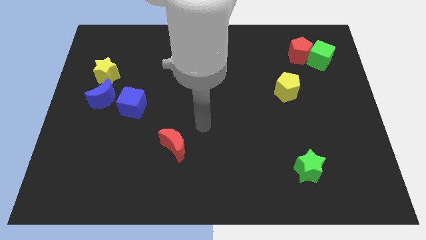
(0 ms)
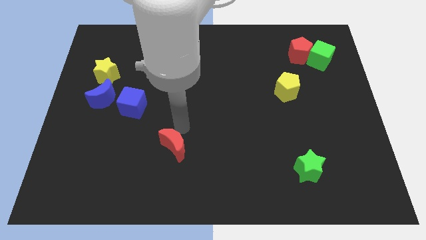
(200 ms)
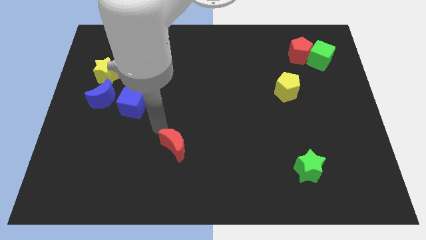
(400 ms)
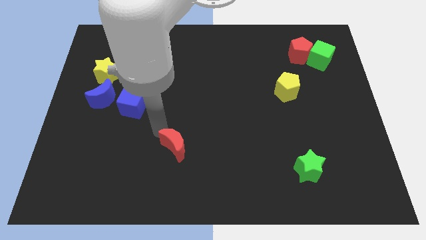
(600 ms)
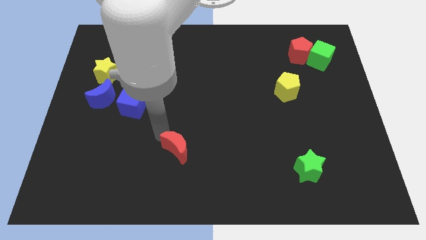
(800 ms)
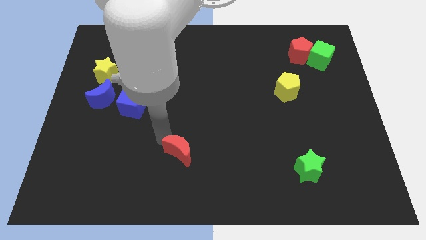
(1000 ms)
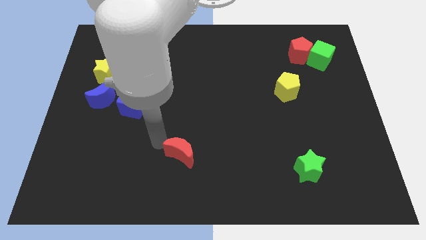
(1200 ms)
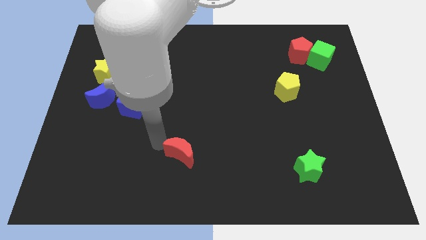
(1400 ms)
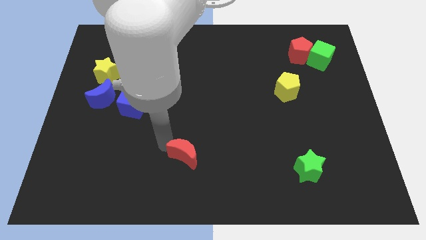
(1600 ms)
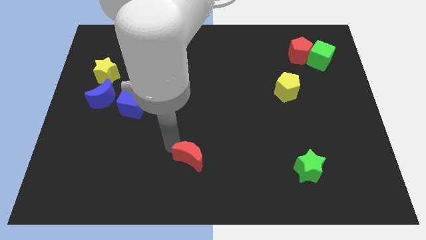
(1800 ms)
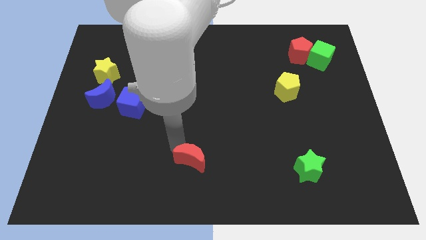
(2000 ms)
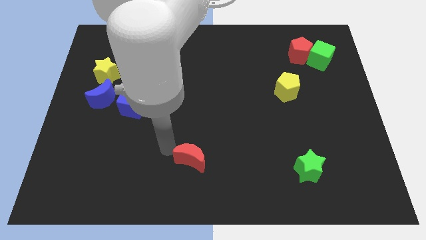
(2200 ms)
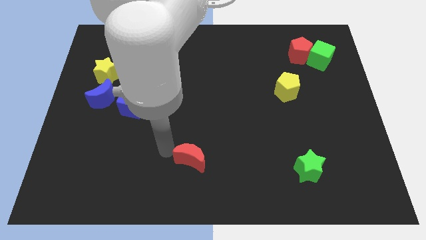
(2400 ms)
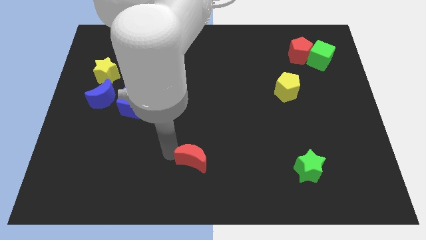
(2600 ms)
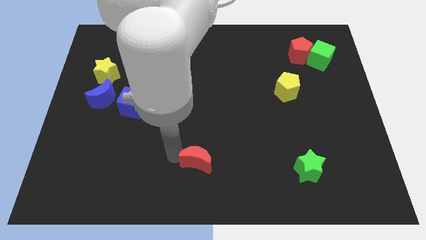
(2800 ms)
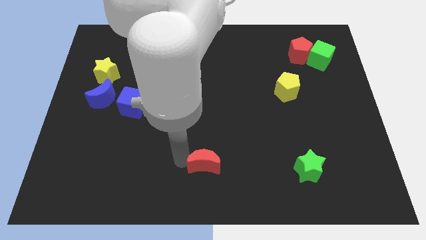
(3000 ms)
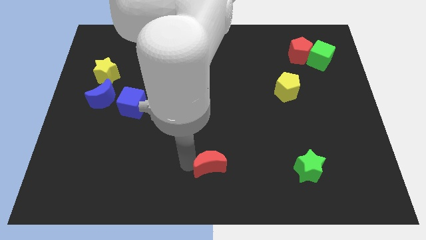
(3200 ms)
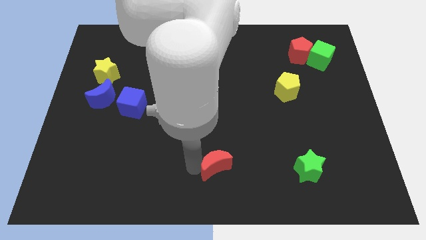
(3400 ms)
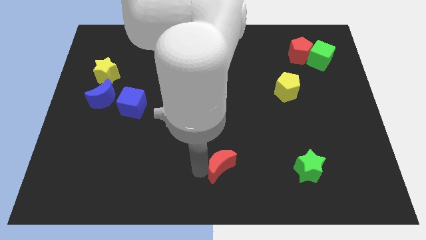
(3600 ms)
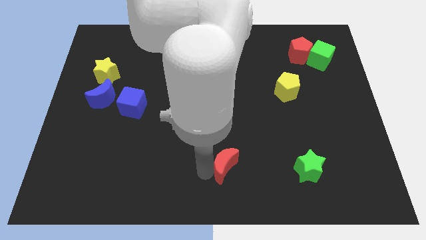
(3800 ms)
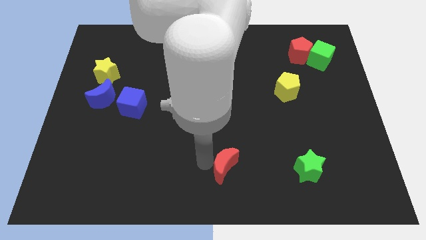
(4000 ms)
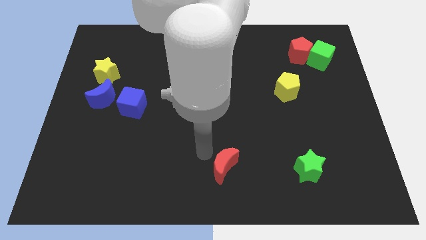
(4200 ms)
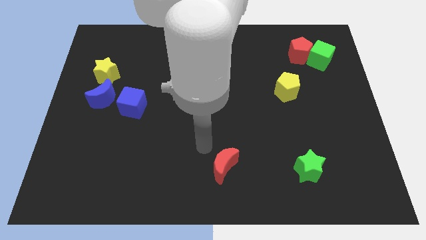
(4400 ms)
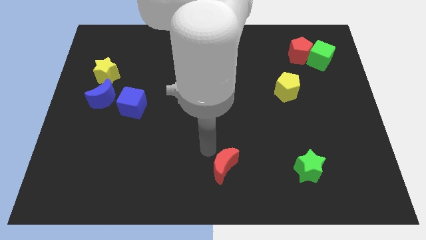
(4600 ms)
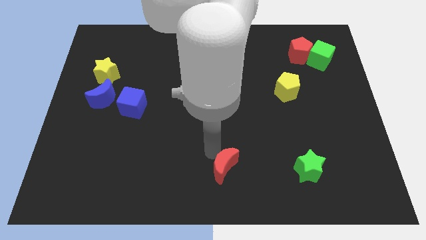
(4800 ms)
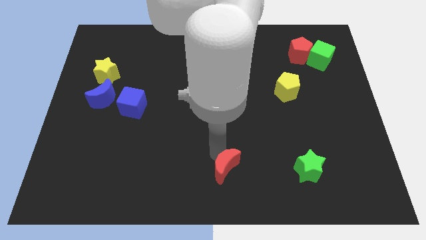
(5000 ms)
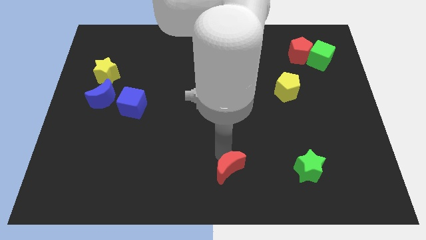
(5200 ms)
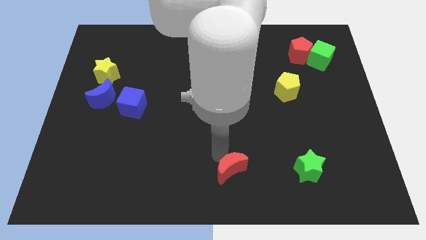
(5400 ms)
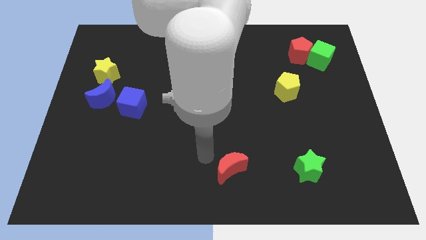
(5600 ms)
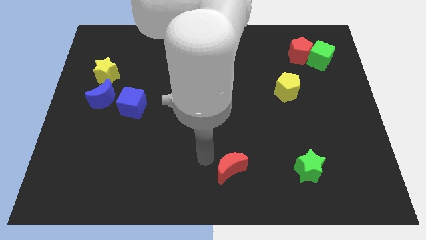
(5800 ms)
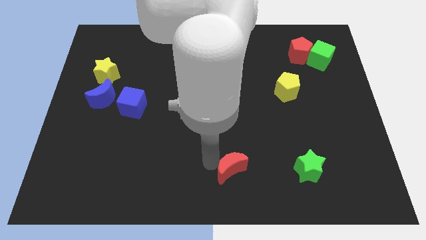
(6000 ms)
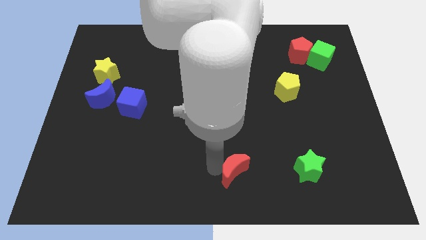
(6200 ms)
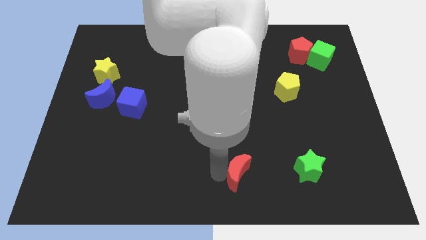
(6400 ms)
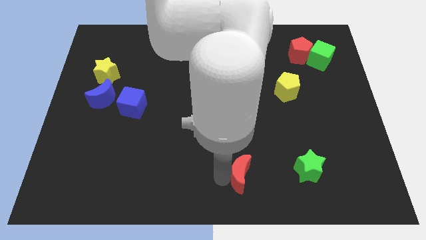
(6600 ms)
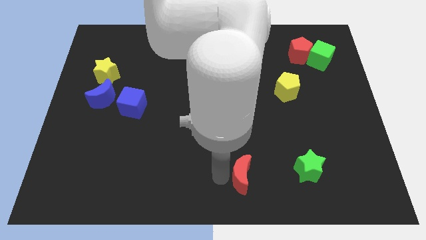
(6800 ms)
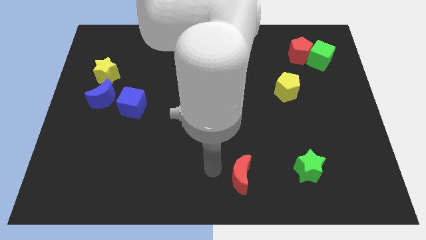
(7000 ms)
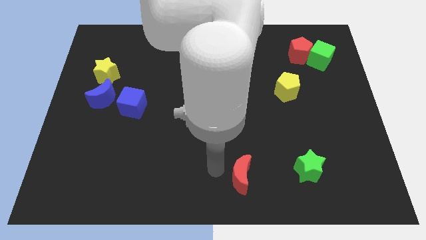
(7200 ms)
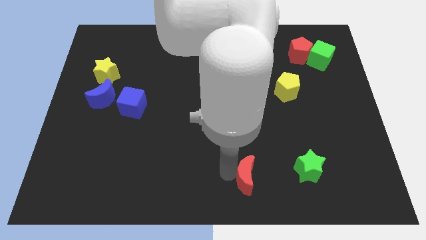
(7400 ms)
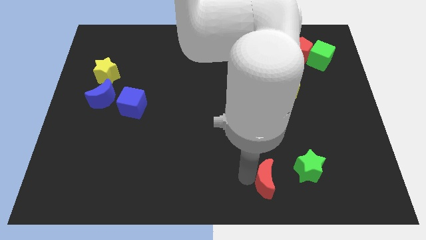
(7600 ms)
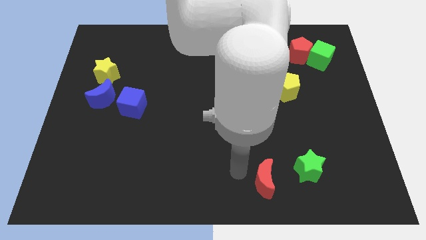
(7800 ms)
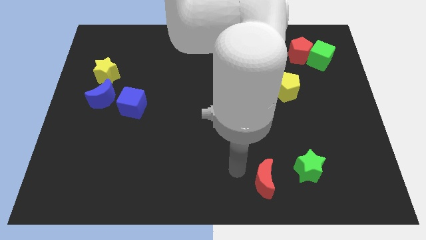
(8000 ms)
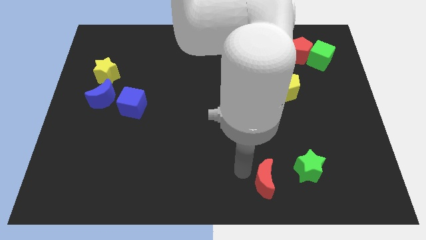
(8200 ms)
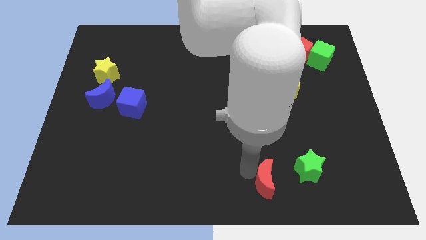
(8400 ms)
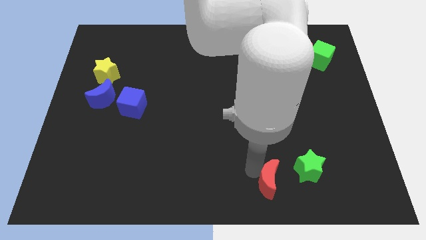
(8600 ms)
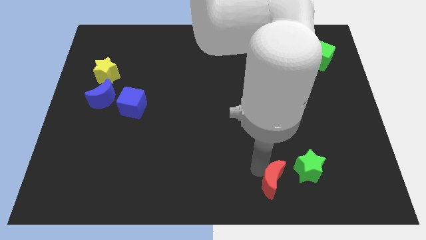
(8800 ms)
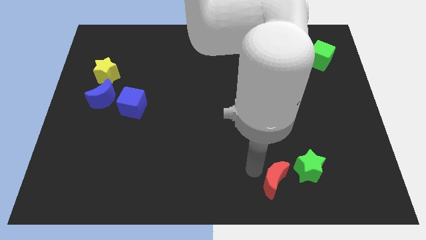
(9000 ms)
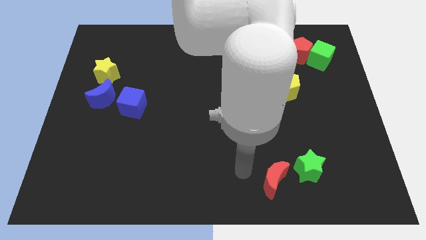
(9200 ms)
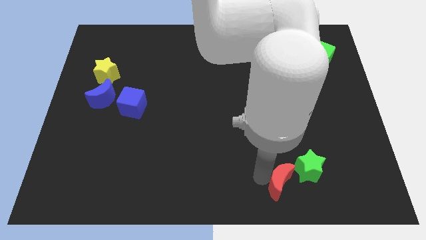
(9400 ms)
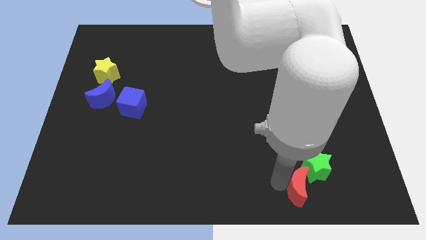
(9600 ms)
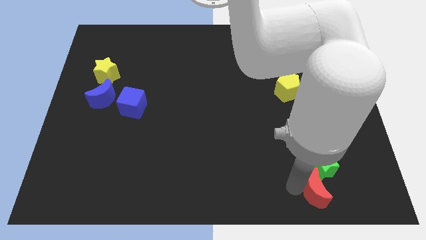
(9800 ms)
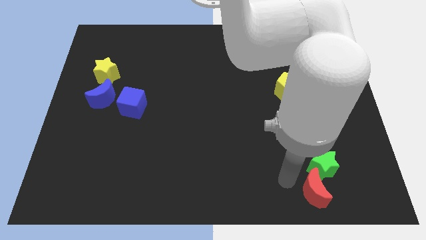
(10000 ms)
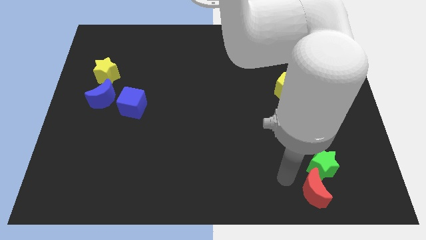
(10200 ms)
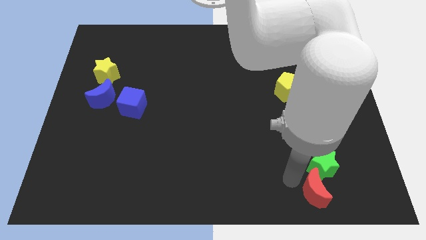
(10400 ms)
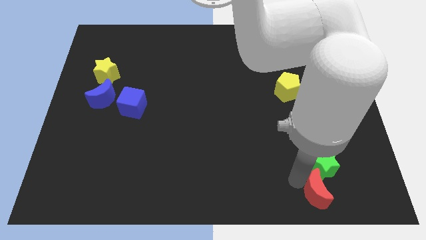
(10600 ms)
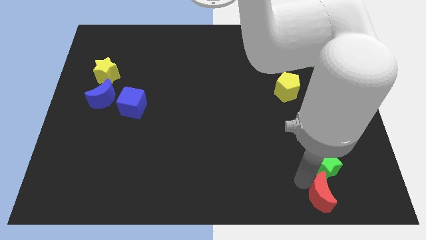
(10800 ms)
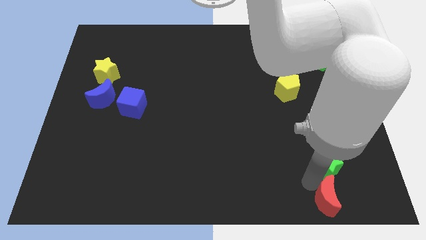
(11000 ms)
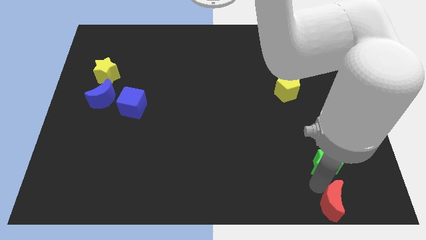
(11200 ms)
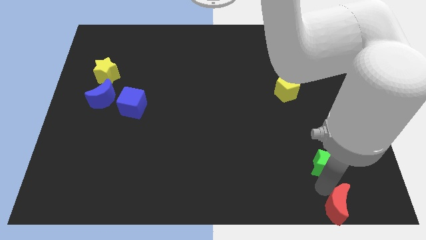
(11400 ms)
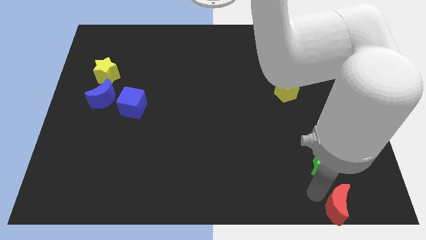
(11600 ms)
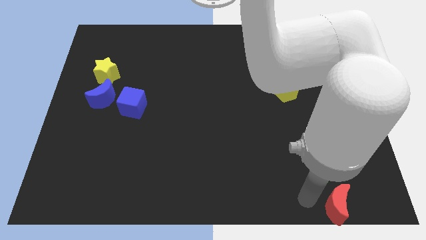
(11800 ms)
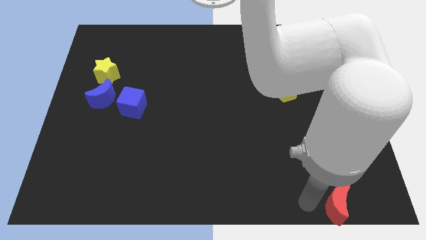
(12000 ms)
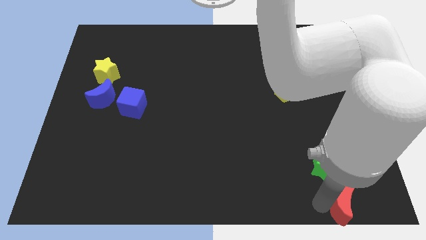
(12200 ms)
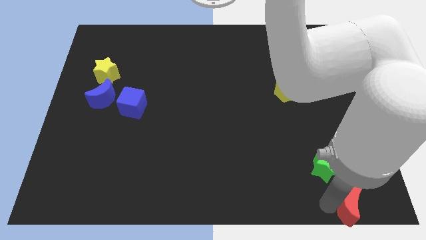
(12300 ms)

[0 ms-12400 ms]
push the red moon to the bottom right of the board

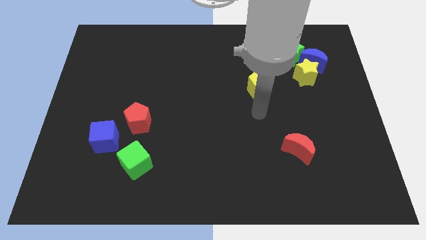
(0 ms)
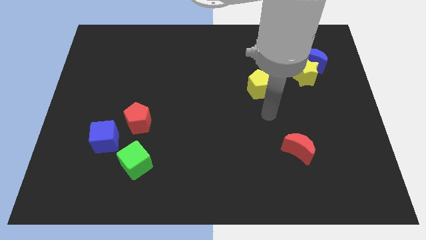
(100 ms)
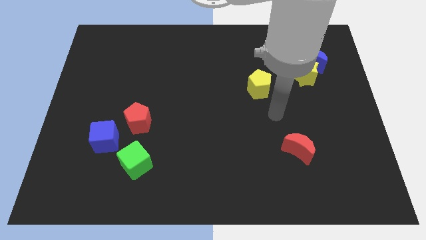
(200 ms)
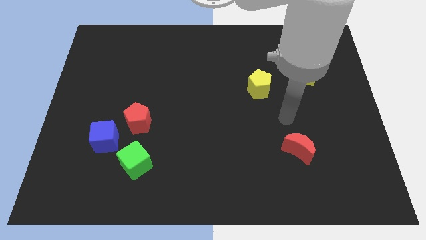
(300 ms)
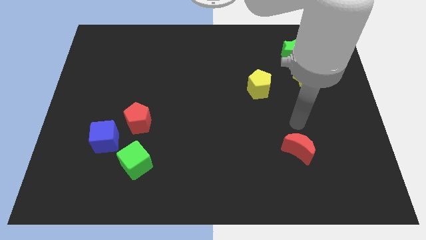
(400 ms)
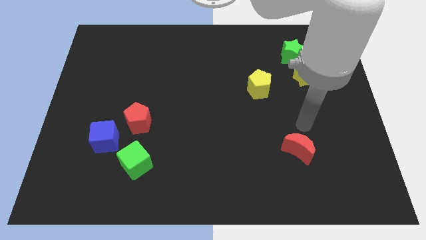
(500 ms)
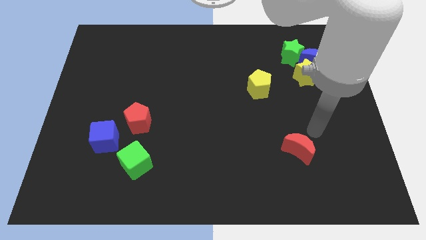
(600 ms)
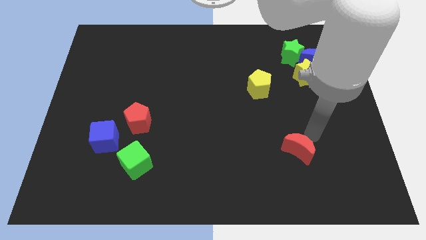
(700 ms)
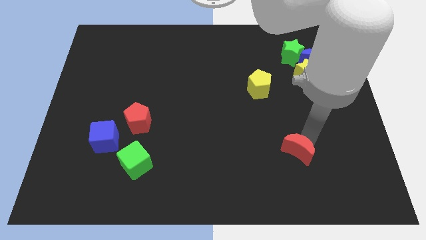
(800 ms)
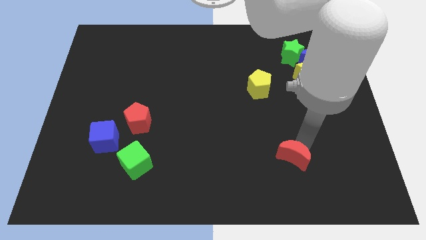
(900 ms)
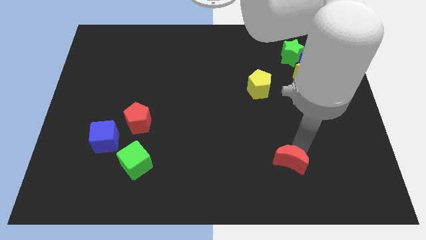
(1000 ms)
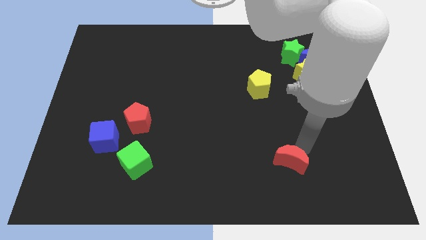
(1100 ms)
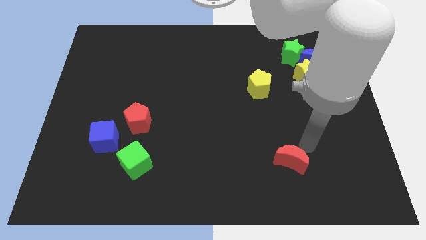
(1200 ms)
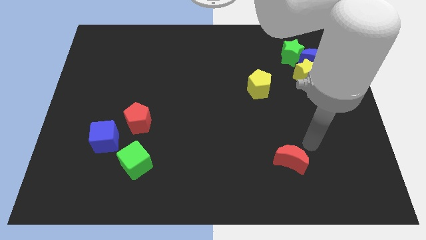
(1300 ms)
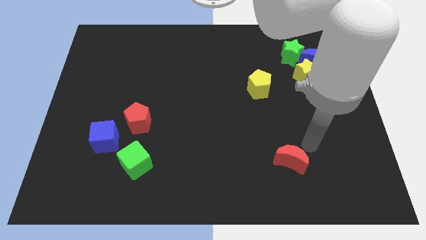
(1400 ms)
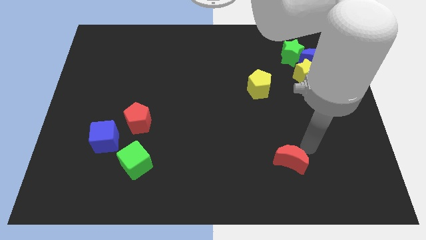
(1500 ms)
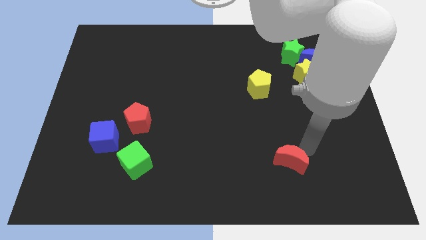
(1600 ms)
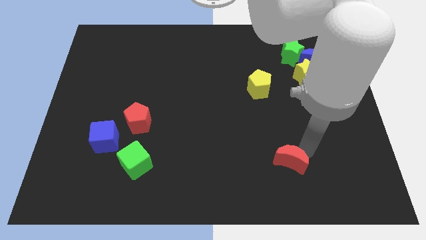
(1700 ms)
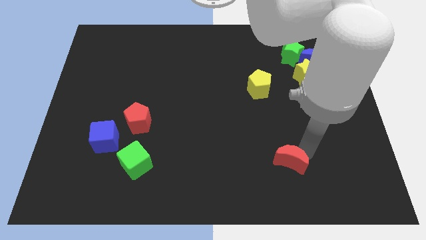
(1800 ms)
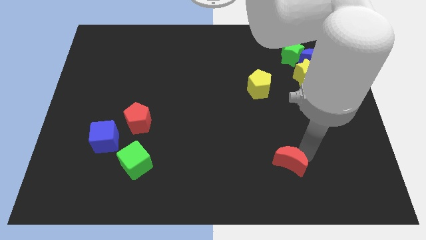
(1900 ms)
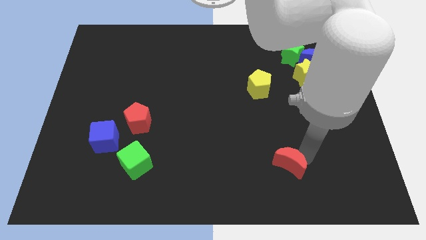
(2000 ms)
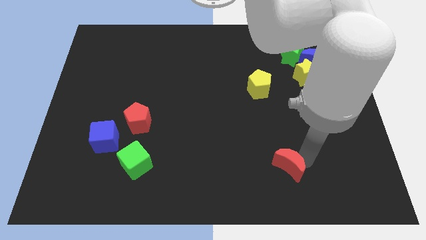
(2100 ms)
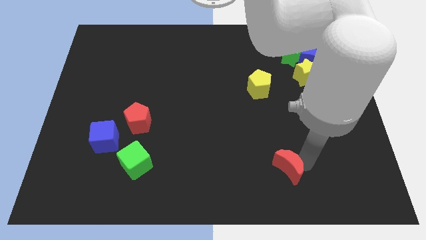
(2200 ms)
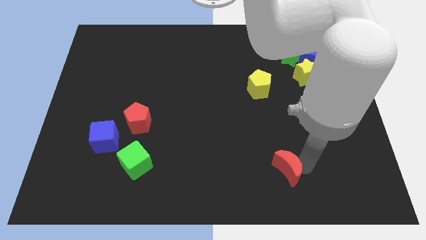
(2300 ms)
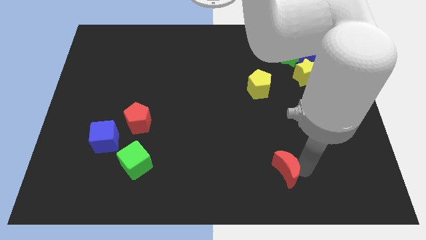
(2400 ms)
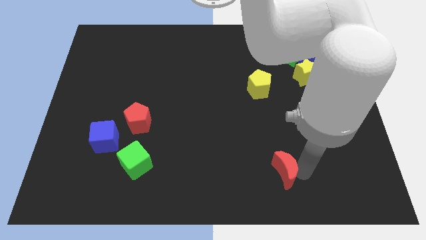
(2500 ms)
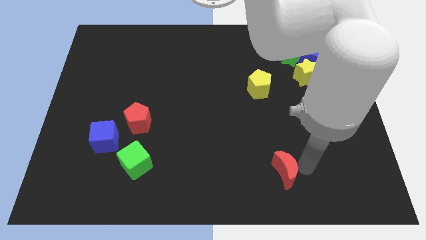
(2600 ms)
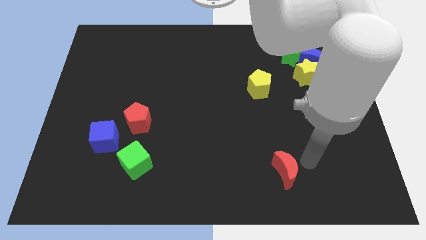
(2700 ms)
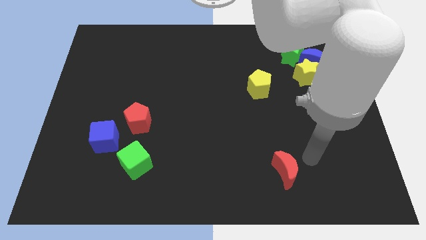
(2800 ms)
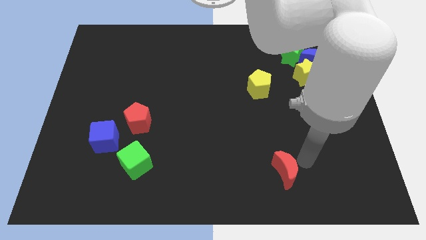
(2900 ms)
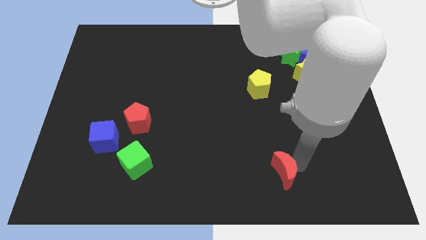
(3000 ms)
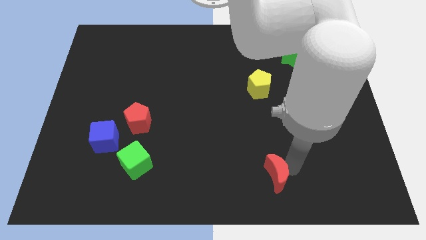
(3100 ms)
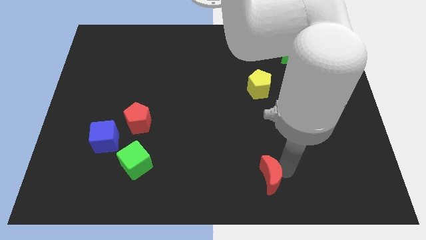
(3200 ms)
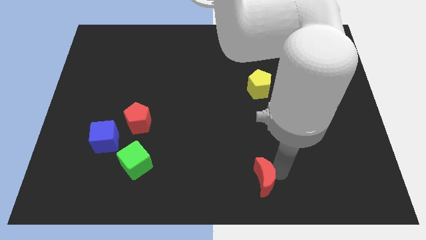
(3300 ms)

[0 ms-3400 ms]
put the red moon to the bottom
